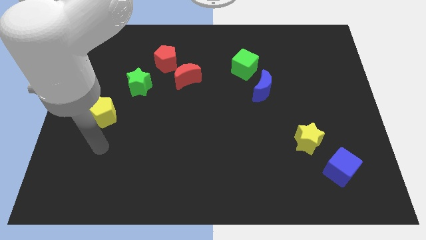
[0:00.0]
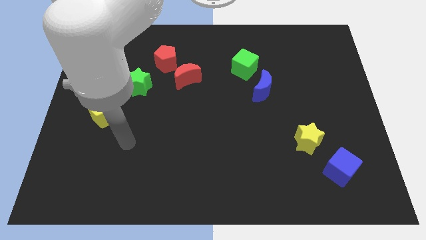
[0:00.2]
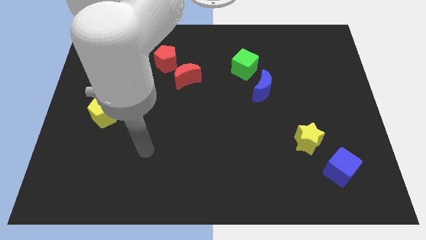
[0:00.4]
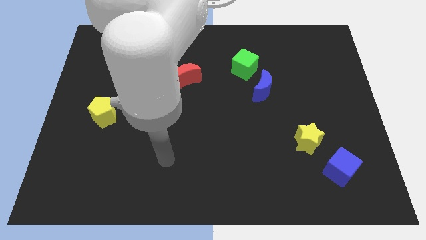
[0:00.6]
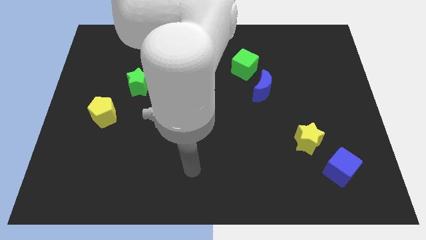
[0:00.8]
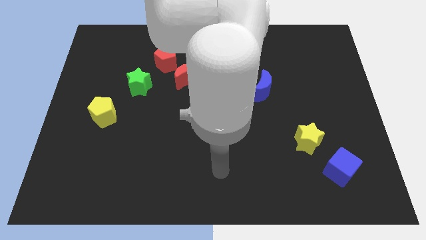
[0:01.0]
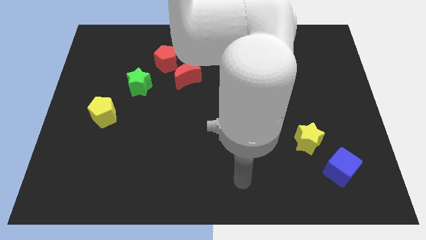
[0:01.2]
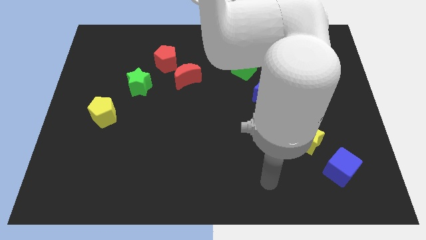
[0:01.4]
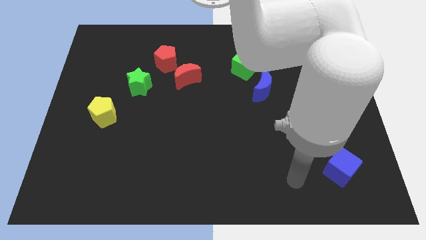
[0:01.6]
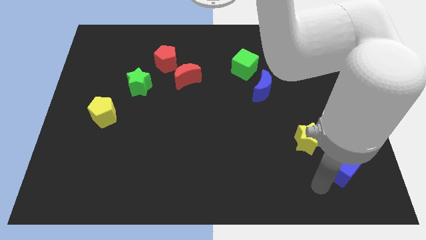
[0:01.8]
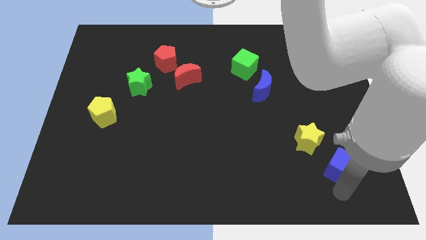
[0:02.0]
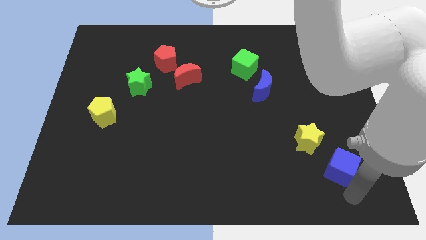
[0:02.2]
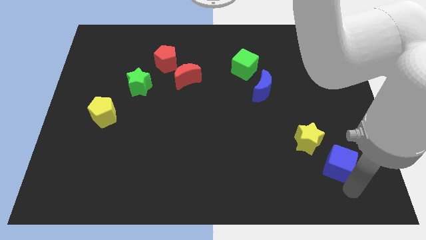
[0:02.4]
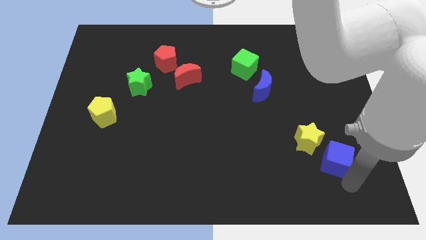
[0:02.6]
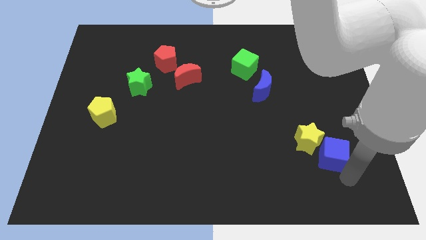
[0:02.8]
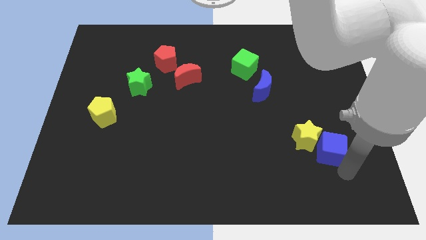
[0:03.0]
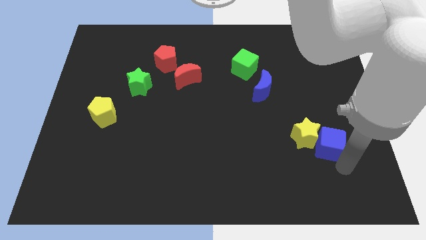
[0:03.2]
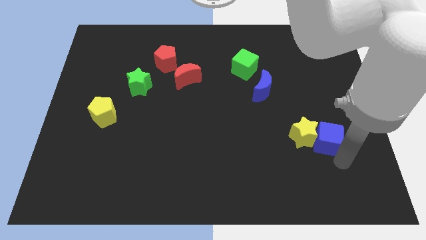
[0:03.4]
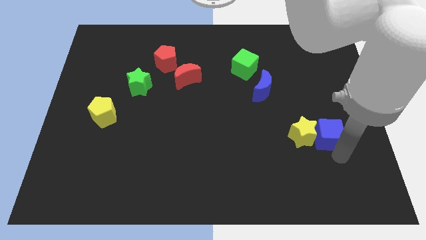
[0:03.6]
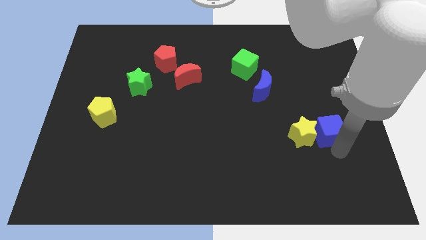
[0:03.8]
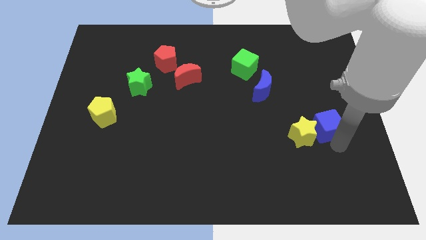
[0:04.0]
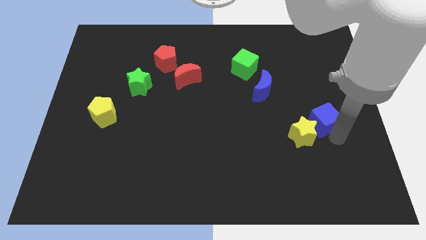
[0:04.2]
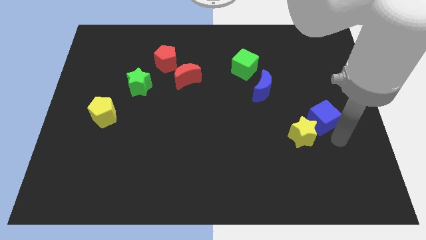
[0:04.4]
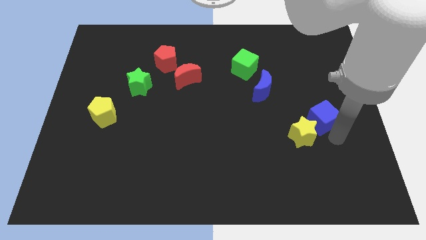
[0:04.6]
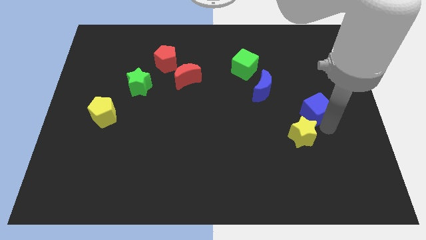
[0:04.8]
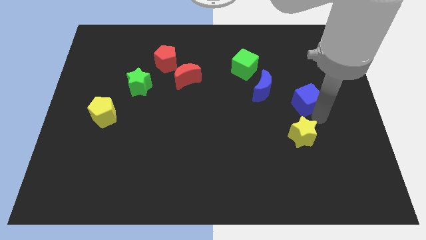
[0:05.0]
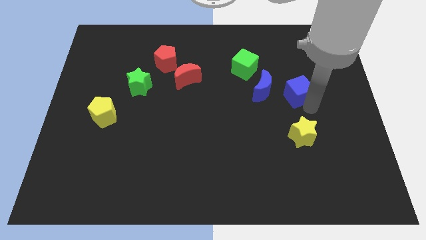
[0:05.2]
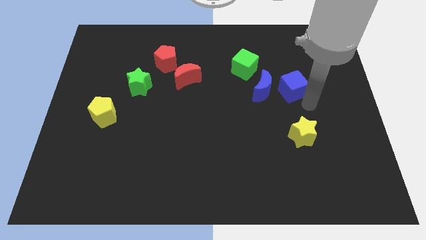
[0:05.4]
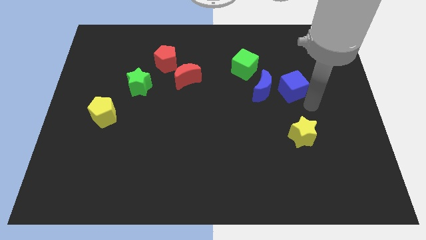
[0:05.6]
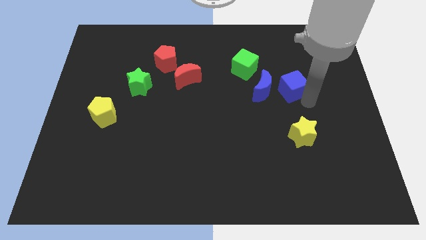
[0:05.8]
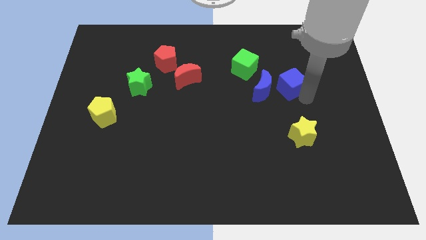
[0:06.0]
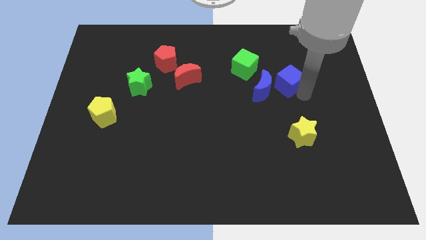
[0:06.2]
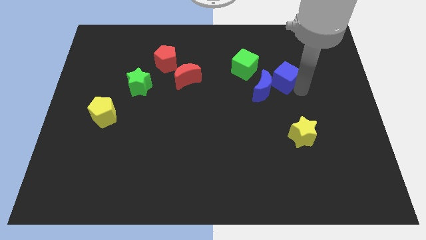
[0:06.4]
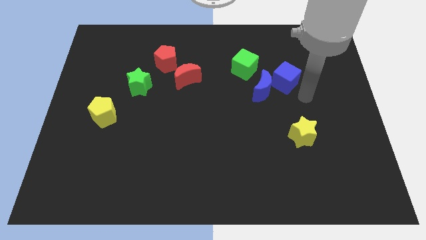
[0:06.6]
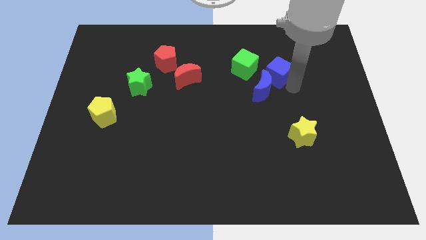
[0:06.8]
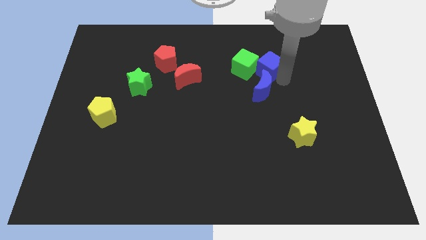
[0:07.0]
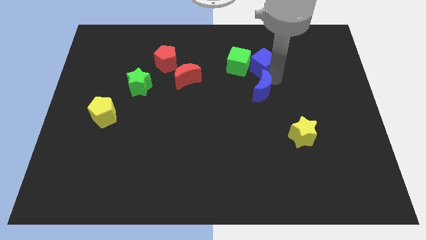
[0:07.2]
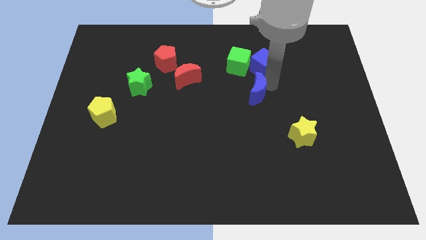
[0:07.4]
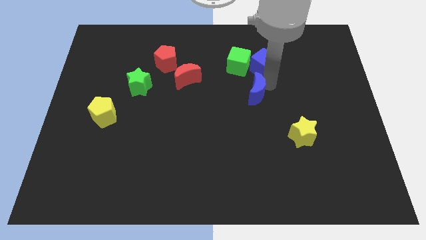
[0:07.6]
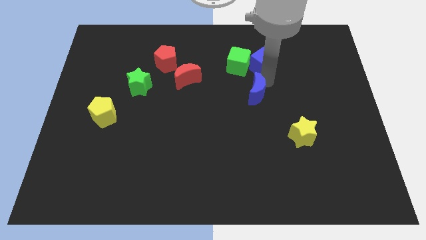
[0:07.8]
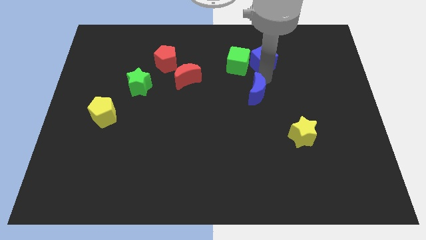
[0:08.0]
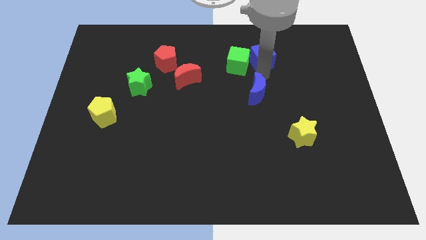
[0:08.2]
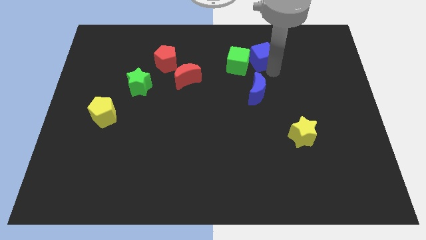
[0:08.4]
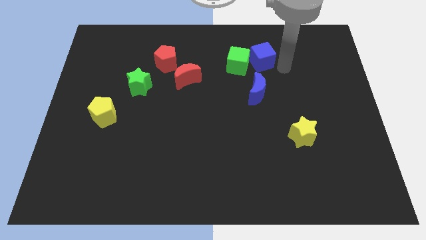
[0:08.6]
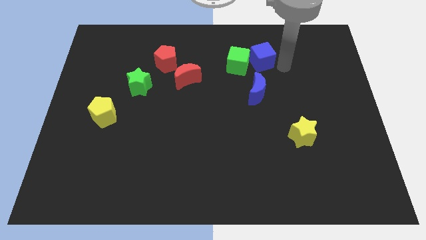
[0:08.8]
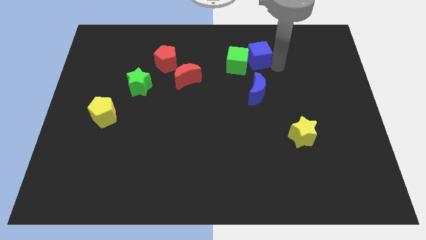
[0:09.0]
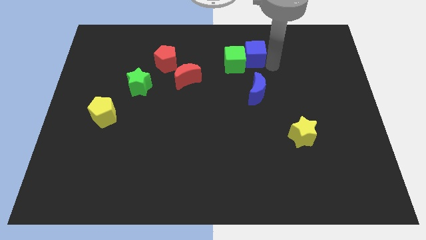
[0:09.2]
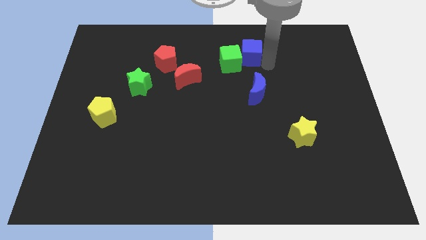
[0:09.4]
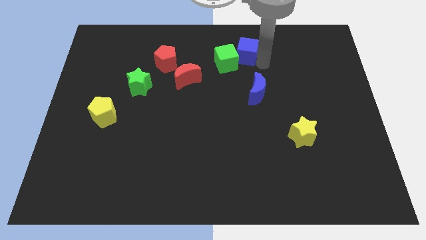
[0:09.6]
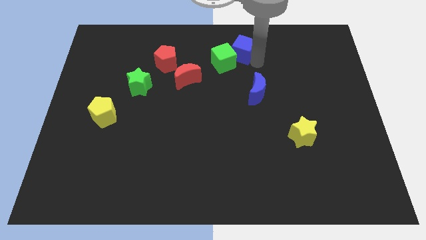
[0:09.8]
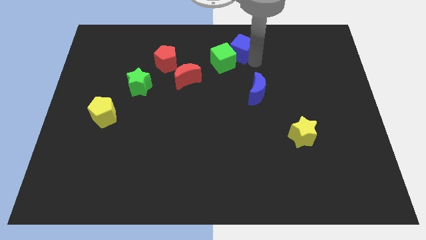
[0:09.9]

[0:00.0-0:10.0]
slide the blue cube to the top

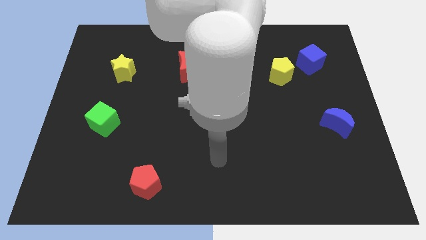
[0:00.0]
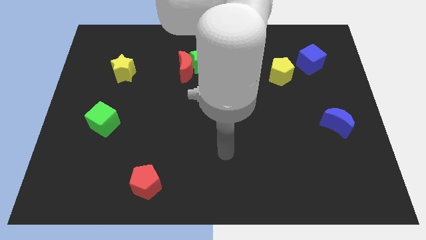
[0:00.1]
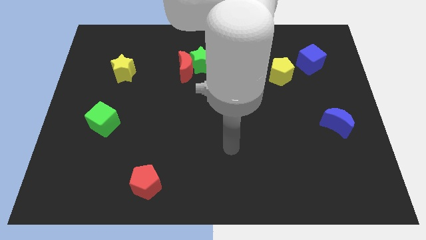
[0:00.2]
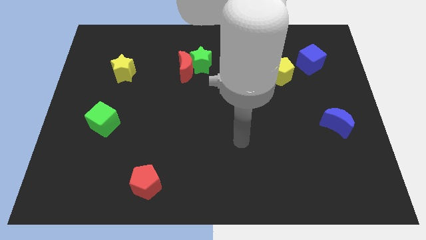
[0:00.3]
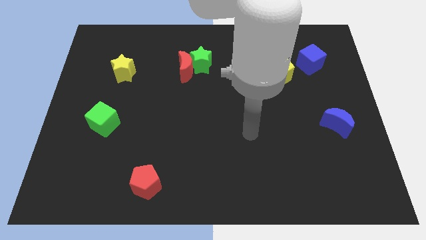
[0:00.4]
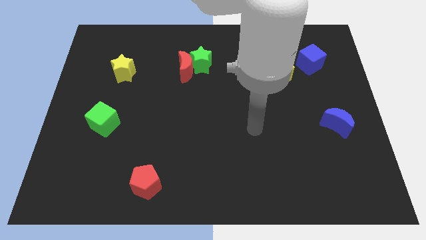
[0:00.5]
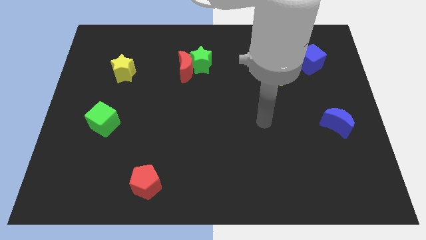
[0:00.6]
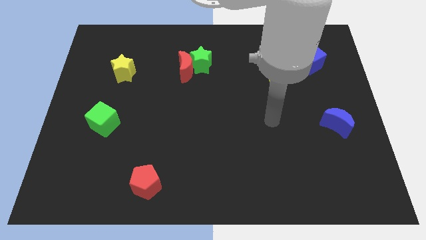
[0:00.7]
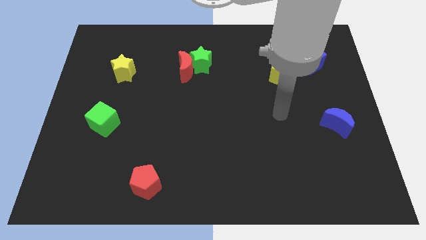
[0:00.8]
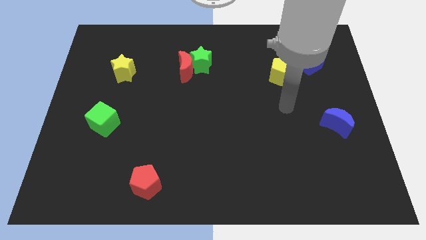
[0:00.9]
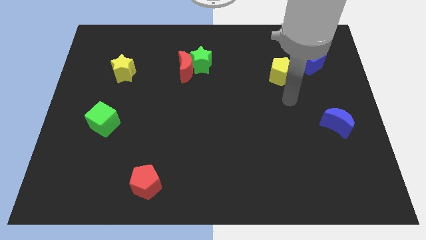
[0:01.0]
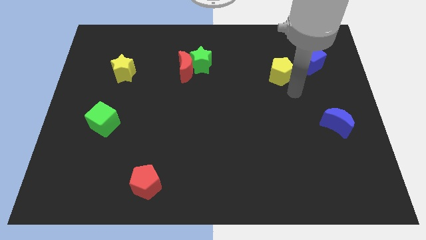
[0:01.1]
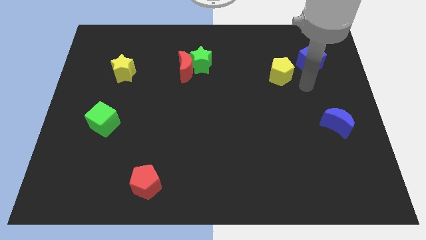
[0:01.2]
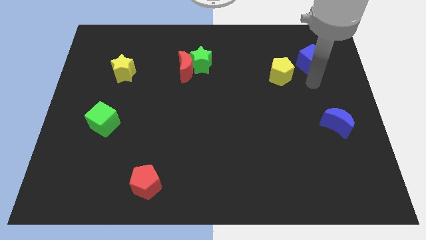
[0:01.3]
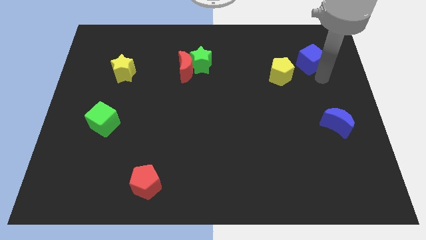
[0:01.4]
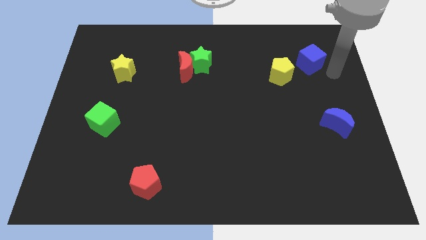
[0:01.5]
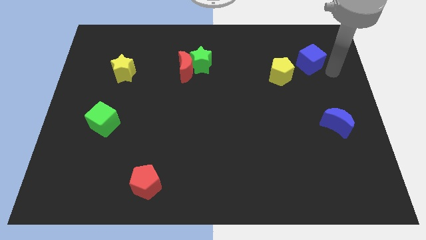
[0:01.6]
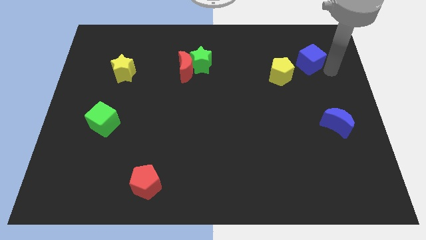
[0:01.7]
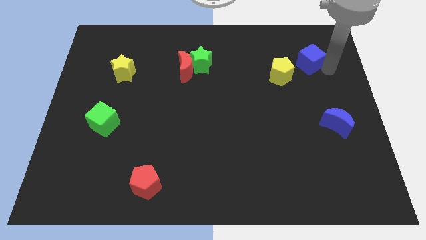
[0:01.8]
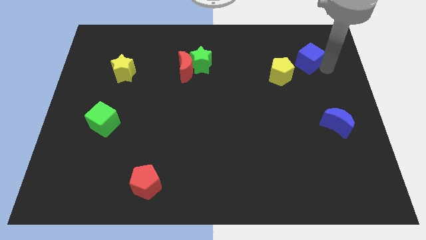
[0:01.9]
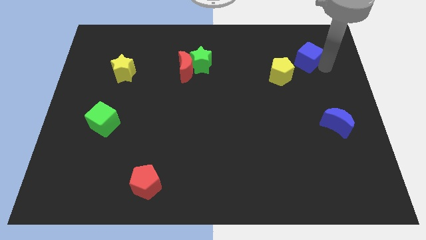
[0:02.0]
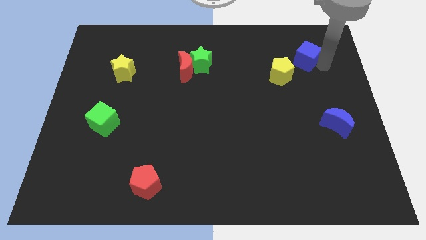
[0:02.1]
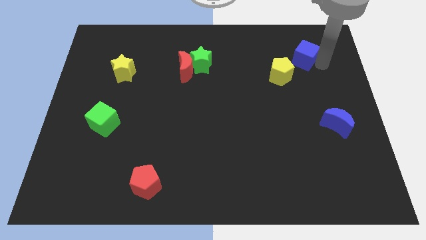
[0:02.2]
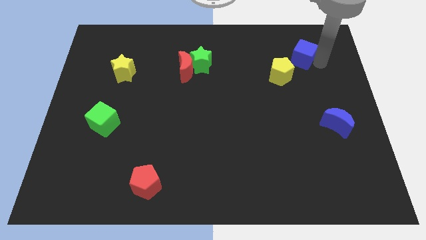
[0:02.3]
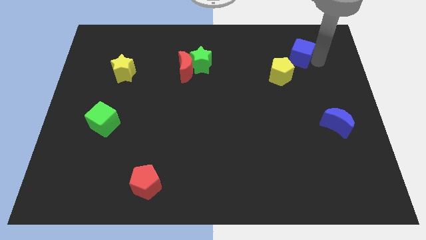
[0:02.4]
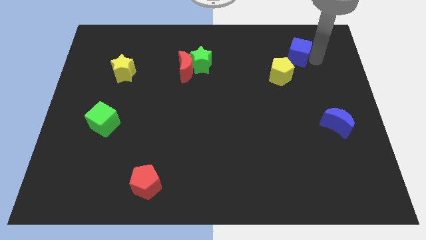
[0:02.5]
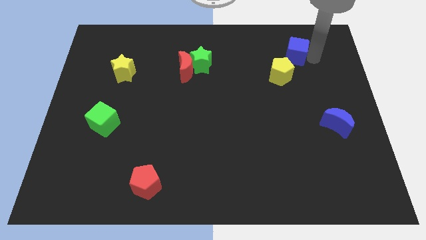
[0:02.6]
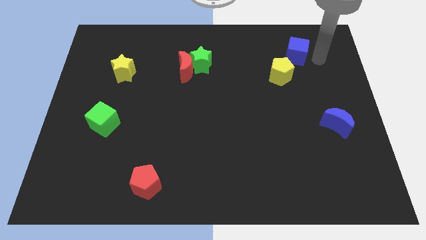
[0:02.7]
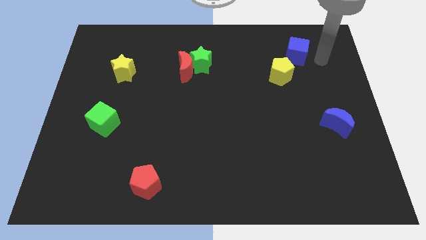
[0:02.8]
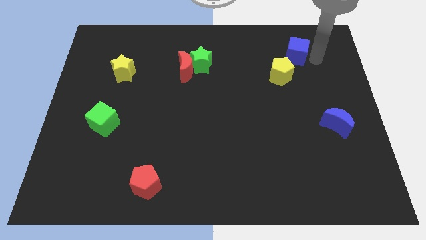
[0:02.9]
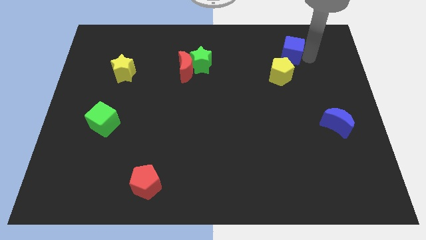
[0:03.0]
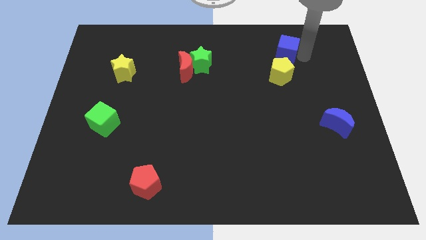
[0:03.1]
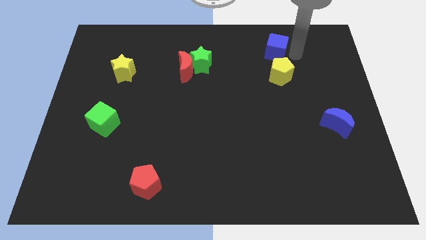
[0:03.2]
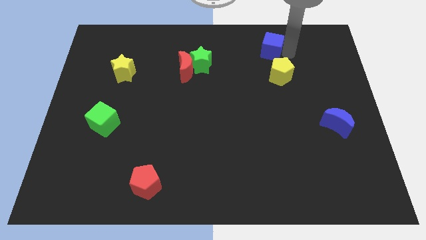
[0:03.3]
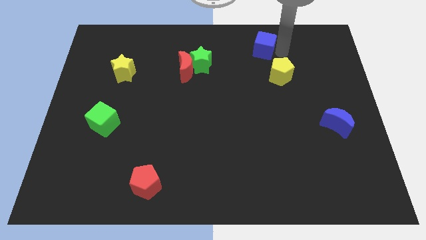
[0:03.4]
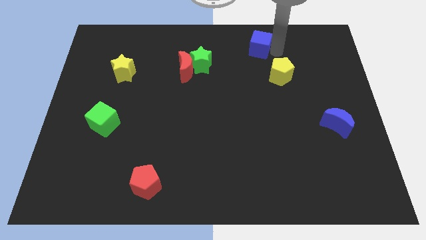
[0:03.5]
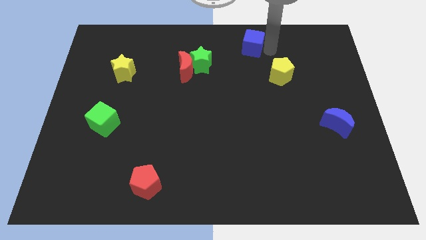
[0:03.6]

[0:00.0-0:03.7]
push the blue cube to the top
